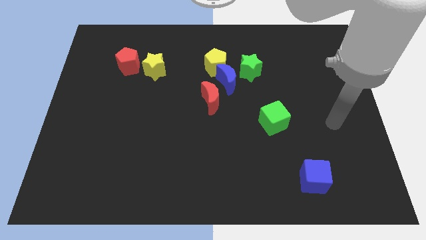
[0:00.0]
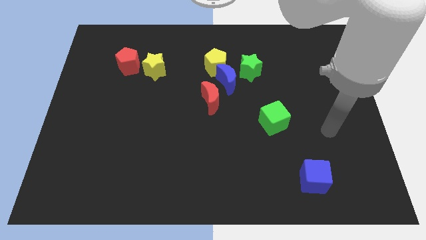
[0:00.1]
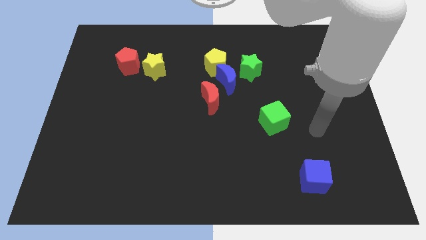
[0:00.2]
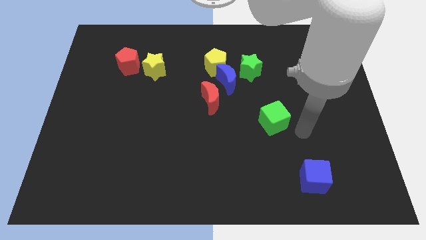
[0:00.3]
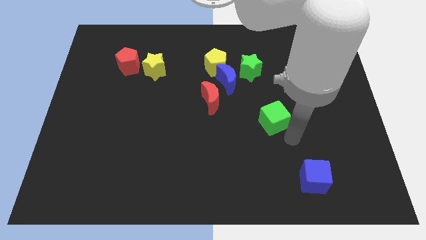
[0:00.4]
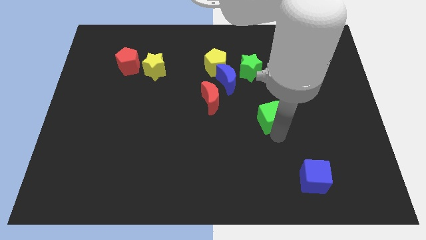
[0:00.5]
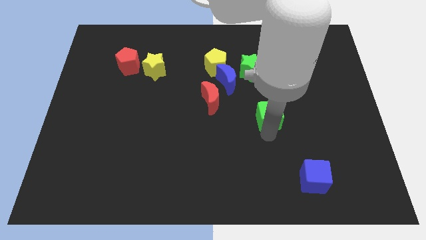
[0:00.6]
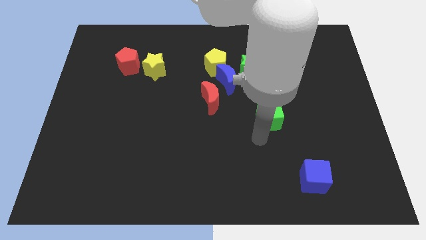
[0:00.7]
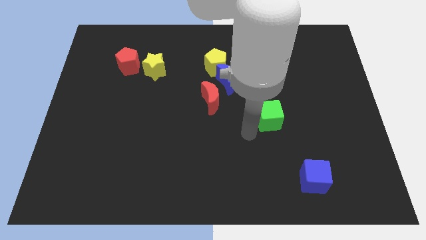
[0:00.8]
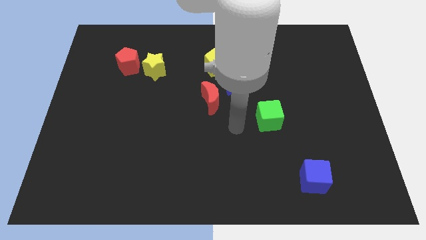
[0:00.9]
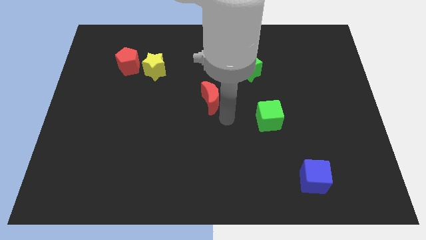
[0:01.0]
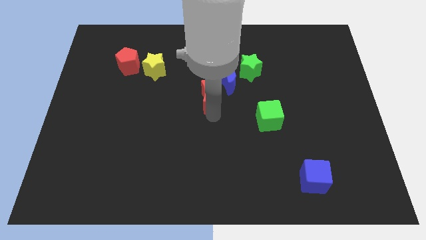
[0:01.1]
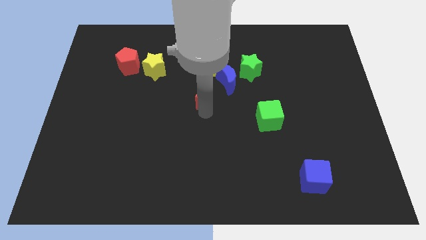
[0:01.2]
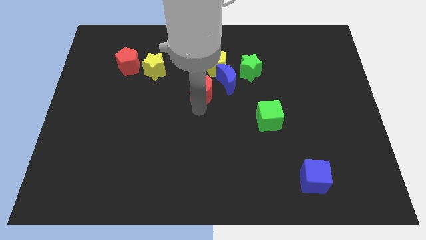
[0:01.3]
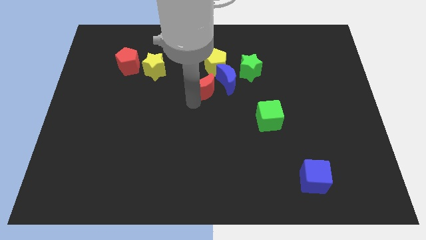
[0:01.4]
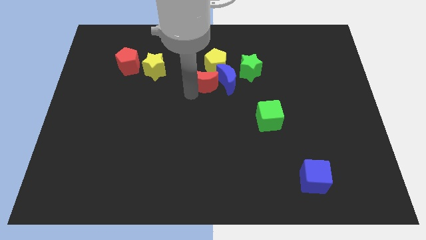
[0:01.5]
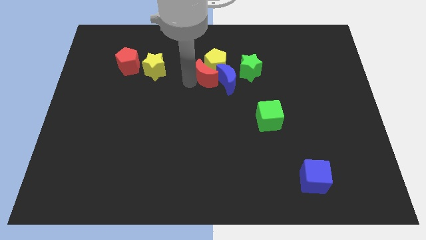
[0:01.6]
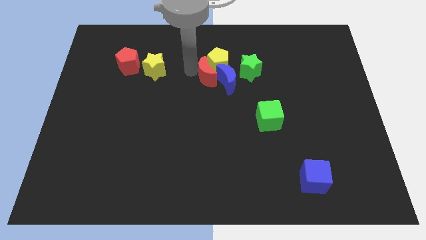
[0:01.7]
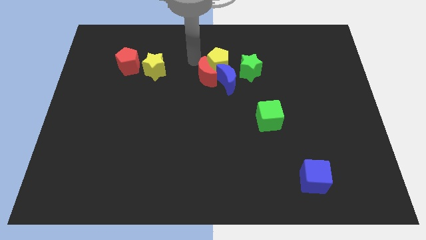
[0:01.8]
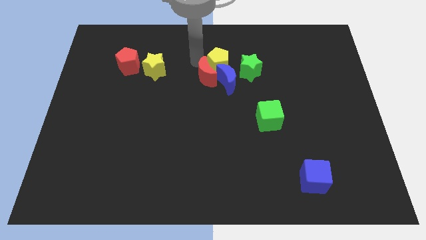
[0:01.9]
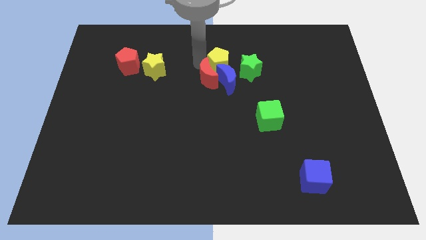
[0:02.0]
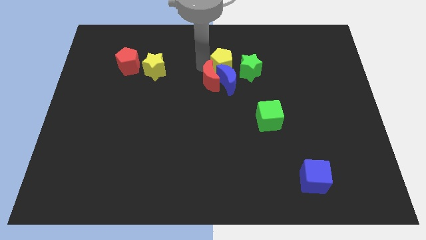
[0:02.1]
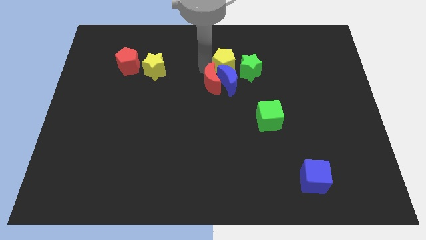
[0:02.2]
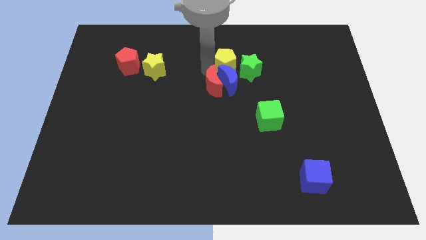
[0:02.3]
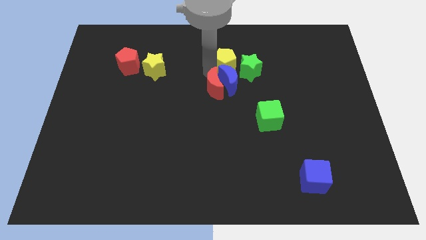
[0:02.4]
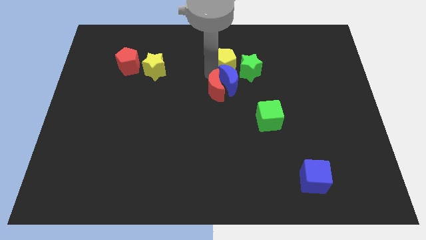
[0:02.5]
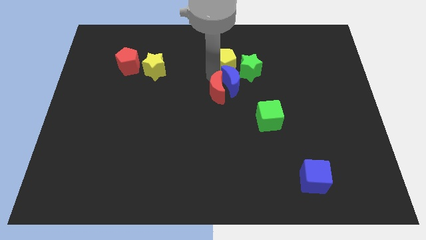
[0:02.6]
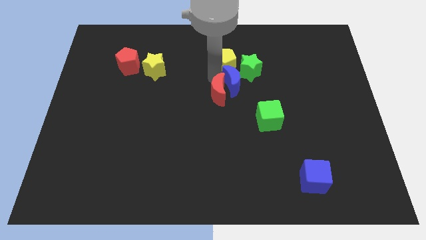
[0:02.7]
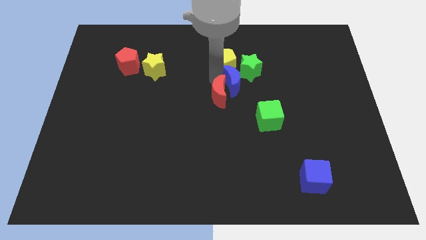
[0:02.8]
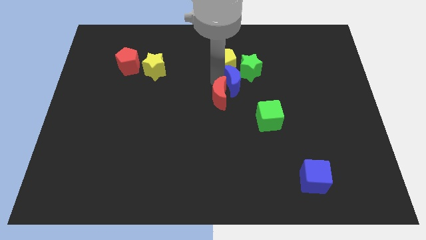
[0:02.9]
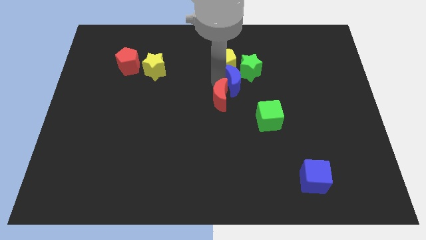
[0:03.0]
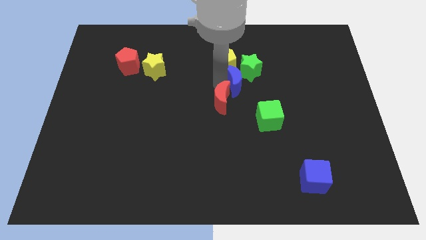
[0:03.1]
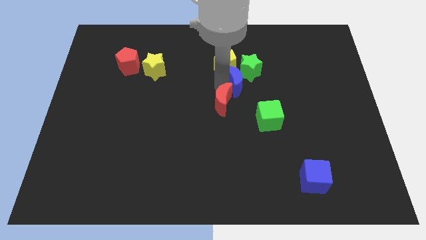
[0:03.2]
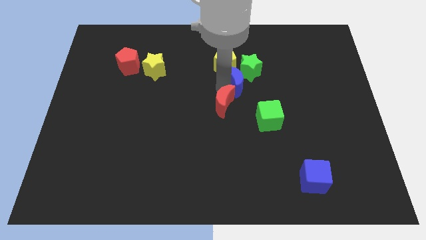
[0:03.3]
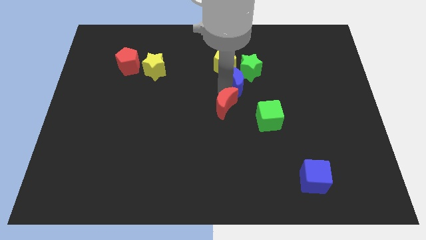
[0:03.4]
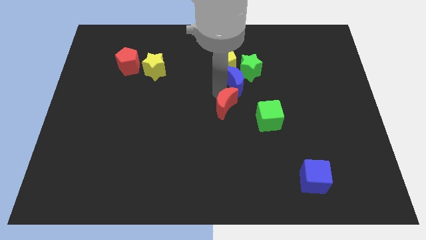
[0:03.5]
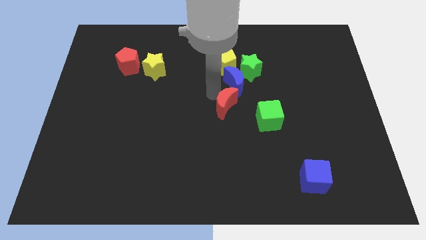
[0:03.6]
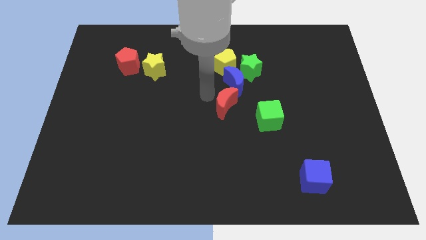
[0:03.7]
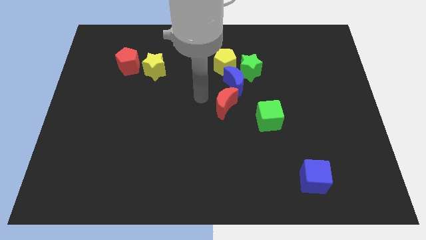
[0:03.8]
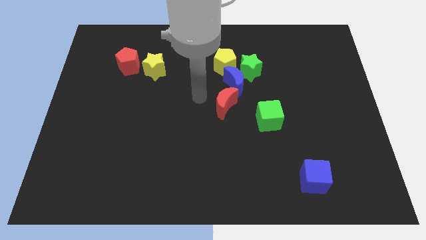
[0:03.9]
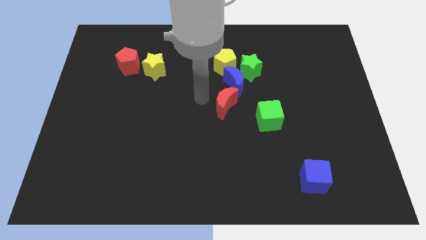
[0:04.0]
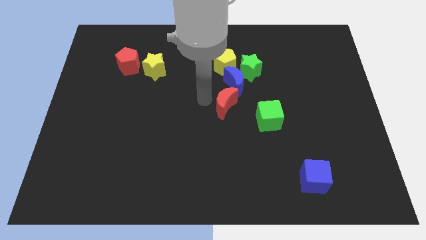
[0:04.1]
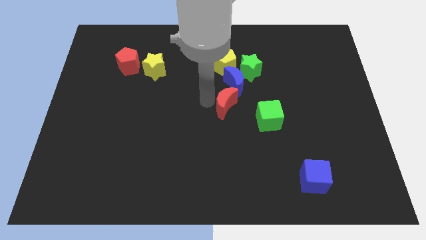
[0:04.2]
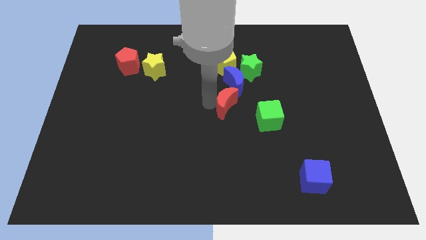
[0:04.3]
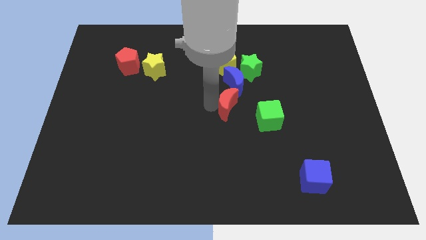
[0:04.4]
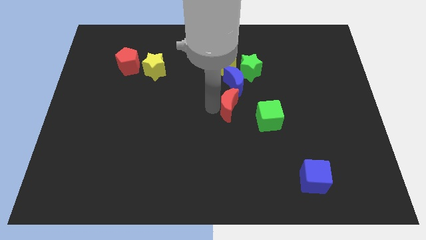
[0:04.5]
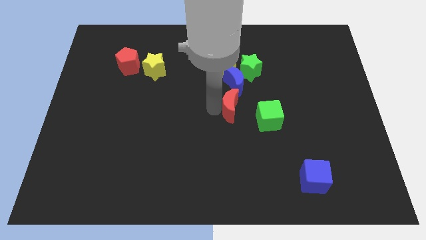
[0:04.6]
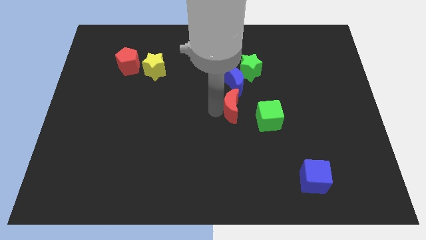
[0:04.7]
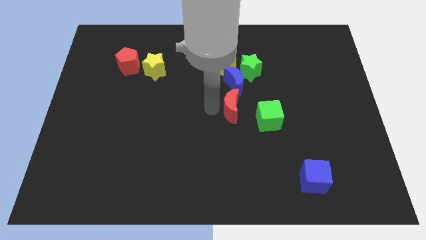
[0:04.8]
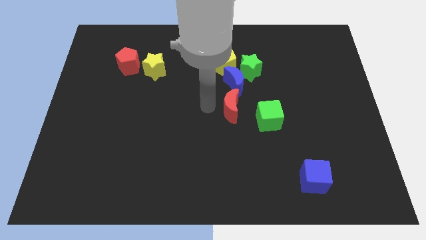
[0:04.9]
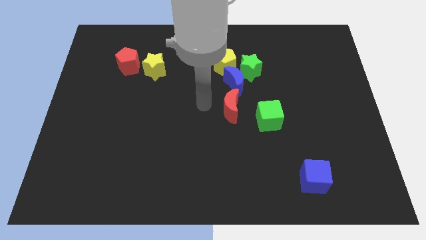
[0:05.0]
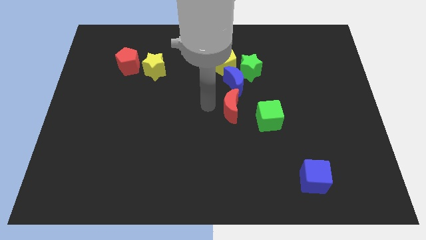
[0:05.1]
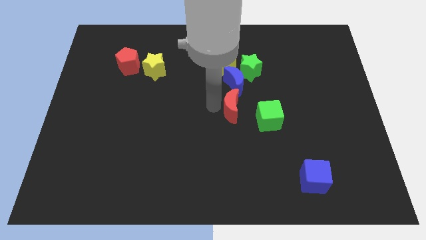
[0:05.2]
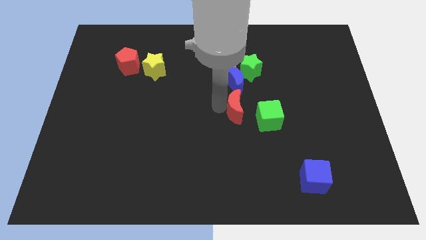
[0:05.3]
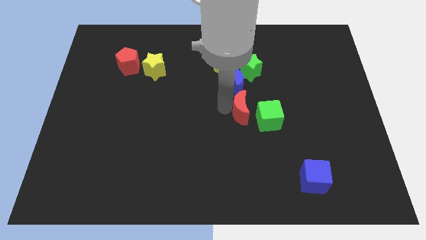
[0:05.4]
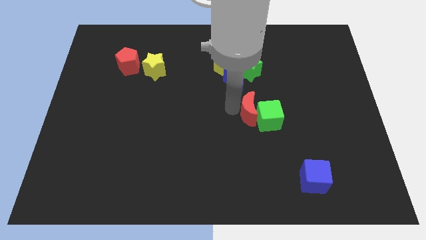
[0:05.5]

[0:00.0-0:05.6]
push the red moon next to the green cube

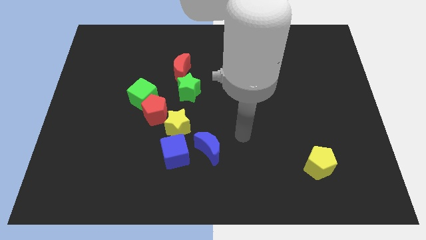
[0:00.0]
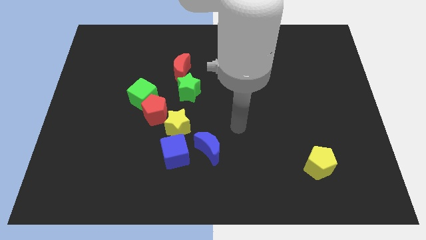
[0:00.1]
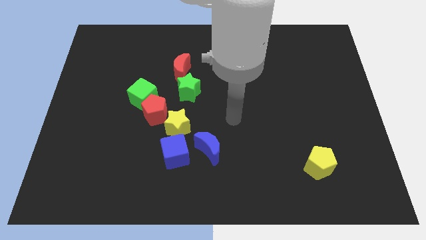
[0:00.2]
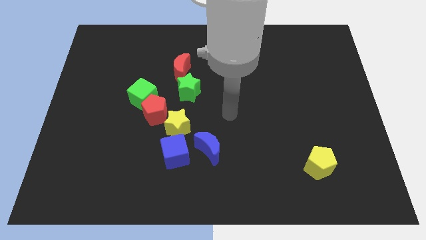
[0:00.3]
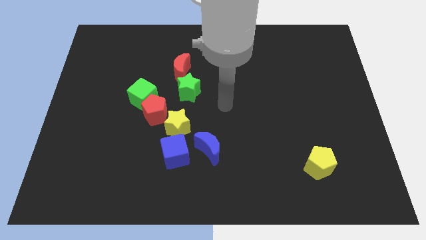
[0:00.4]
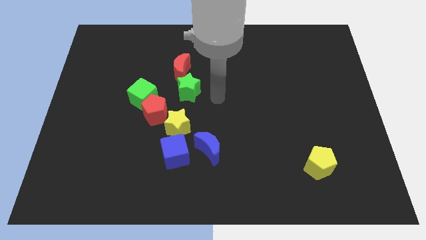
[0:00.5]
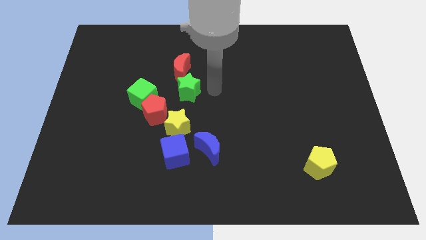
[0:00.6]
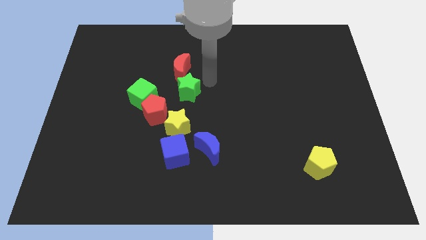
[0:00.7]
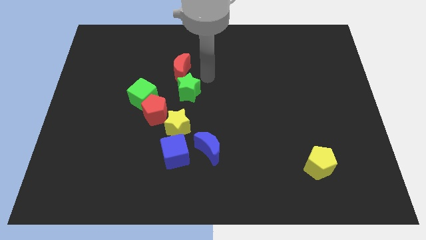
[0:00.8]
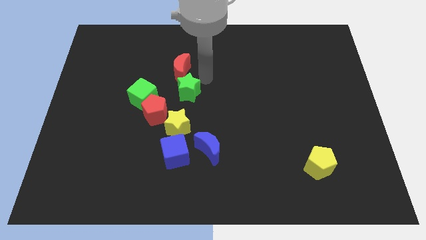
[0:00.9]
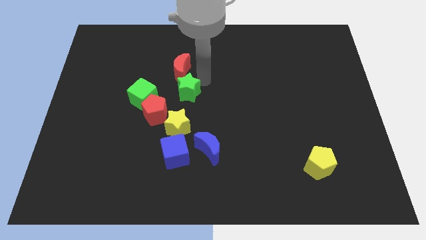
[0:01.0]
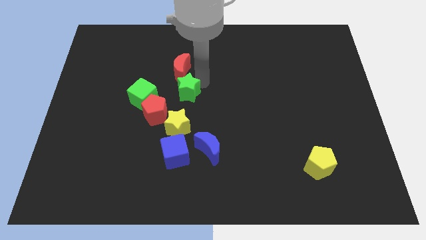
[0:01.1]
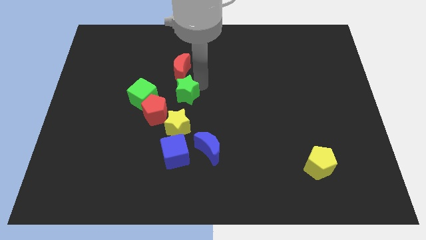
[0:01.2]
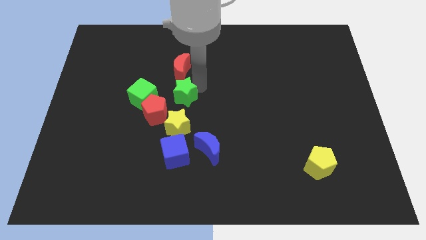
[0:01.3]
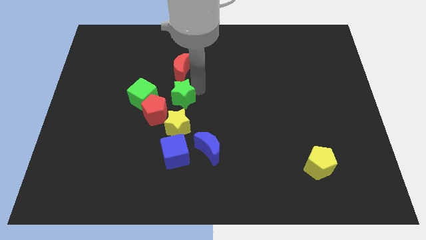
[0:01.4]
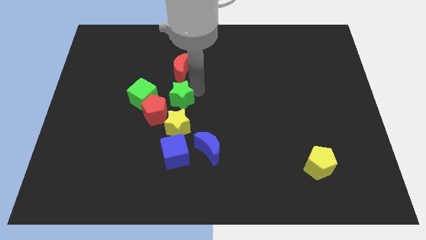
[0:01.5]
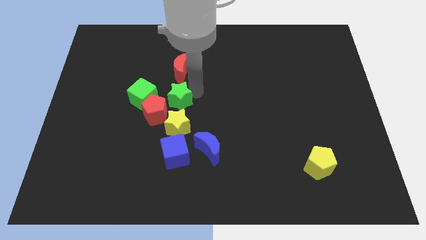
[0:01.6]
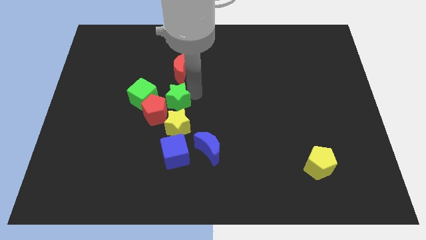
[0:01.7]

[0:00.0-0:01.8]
put the green star to the red pentagon
